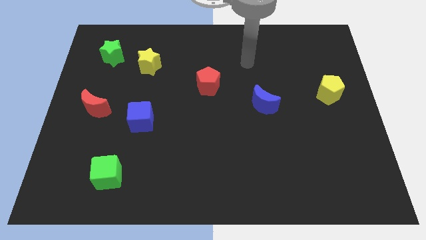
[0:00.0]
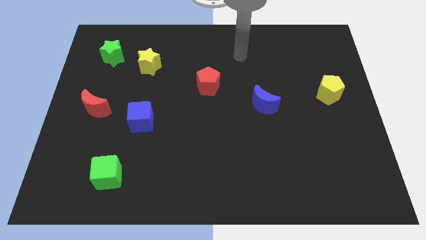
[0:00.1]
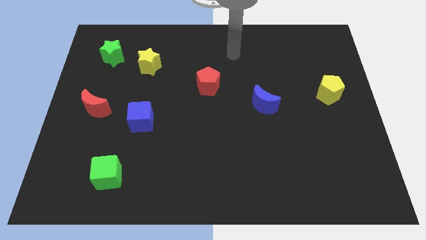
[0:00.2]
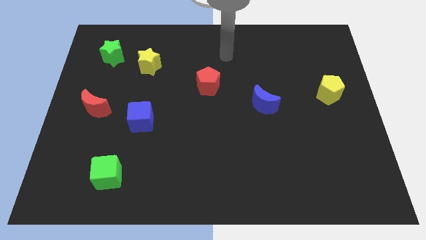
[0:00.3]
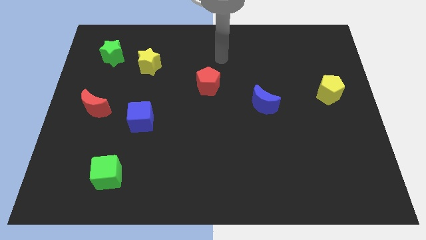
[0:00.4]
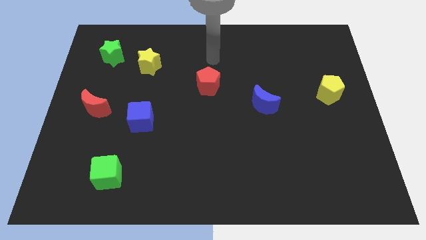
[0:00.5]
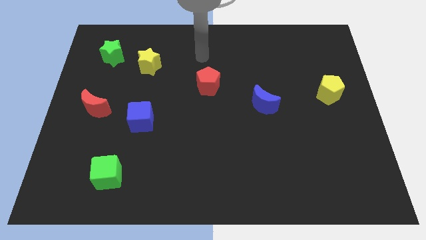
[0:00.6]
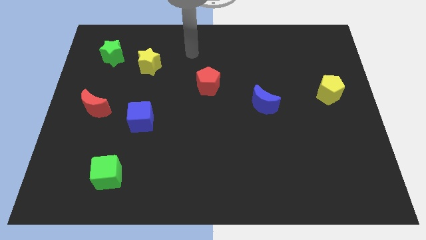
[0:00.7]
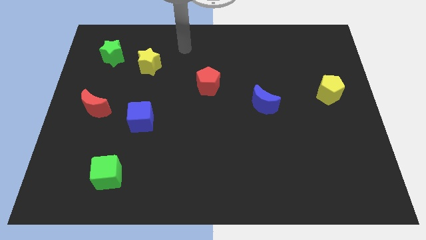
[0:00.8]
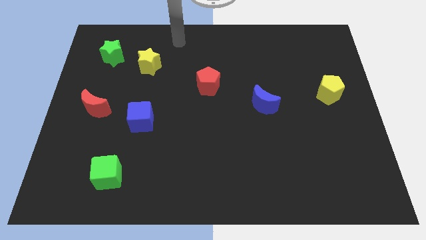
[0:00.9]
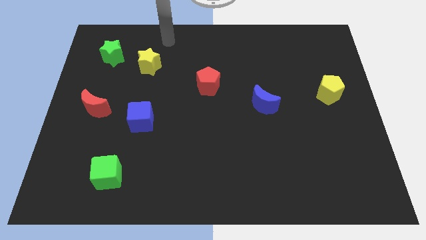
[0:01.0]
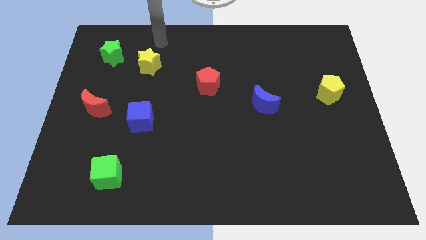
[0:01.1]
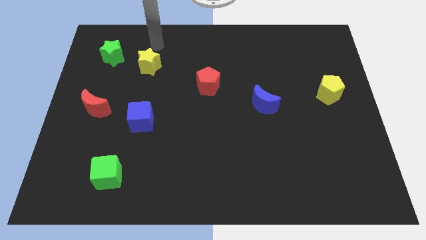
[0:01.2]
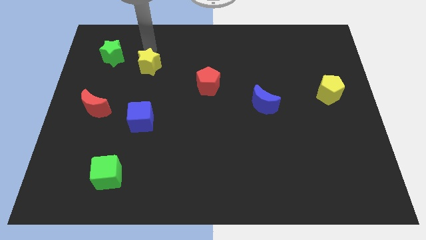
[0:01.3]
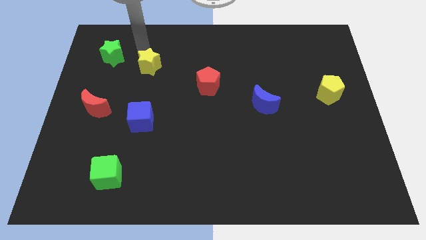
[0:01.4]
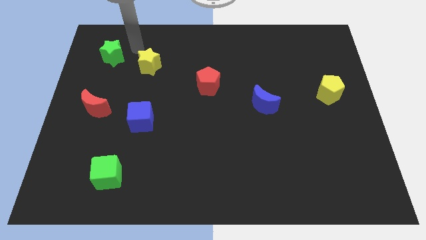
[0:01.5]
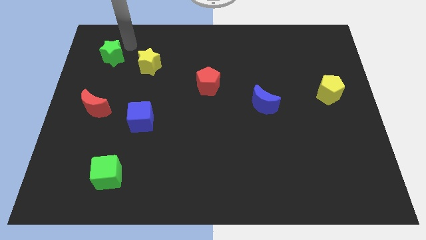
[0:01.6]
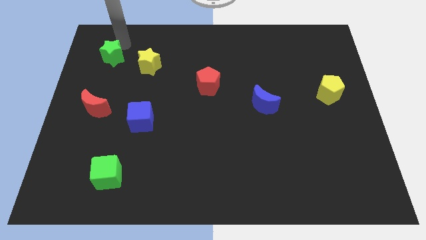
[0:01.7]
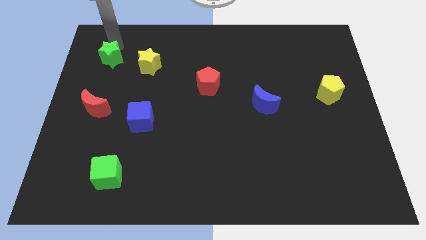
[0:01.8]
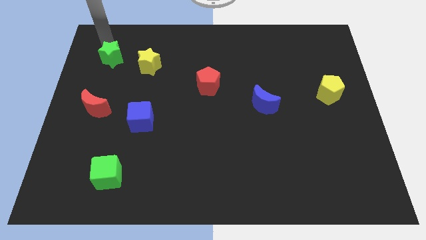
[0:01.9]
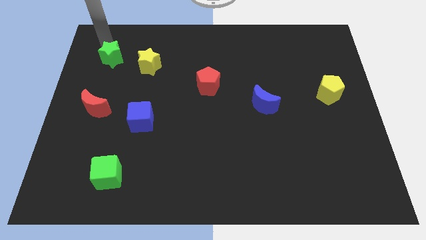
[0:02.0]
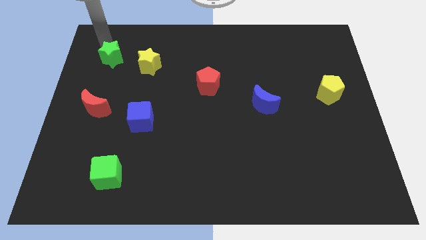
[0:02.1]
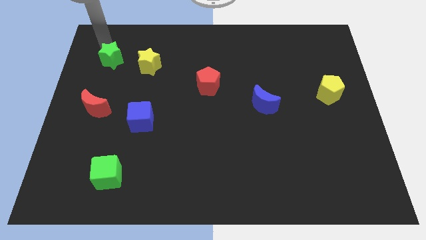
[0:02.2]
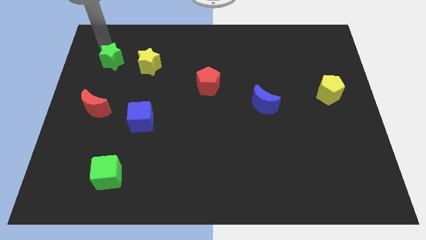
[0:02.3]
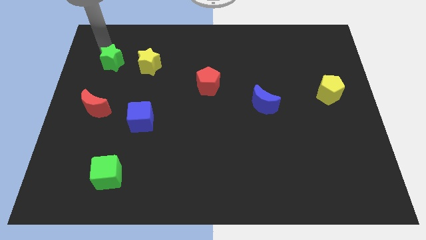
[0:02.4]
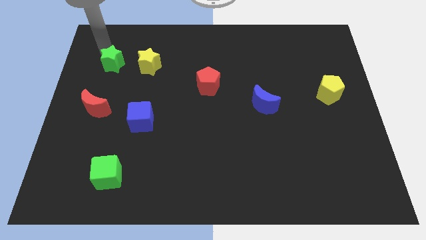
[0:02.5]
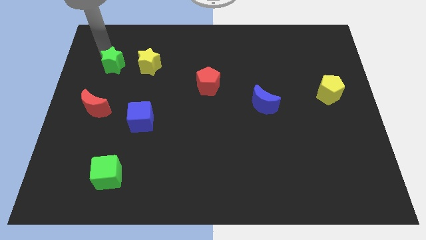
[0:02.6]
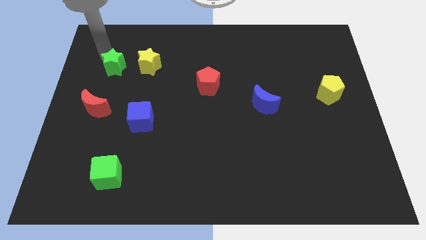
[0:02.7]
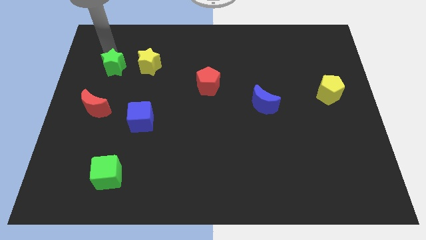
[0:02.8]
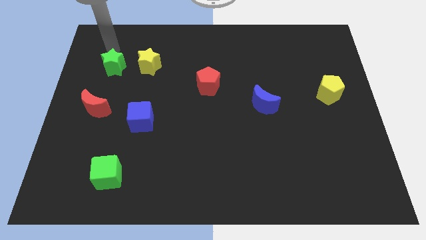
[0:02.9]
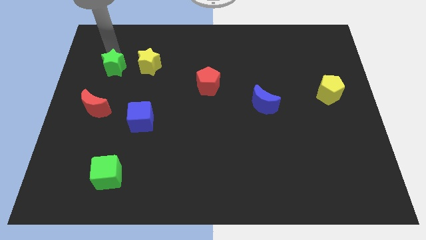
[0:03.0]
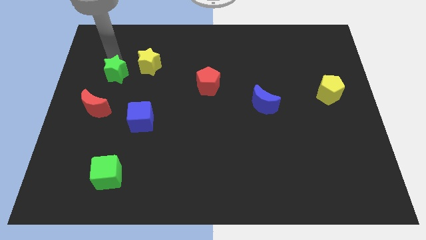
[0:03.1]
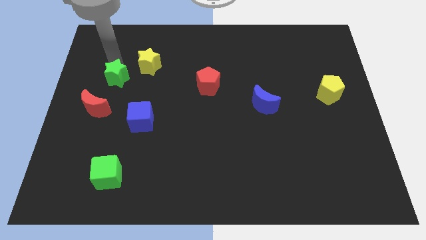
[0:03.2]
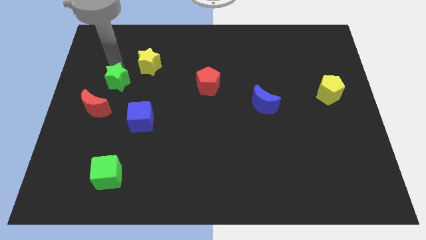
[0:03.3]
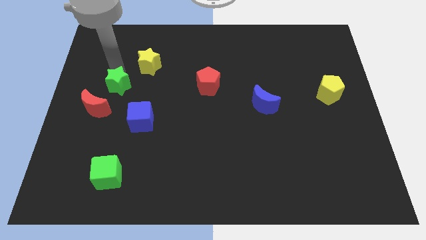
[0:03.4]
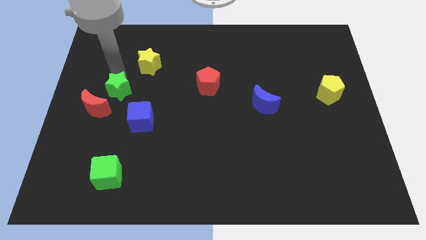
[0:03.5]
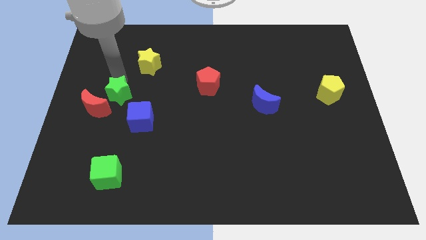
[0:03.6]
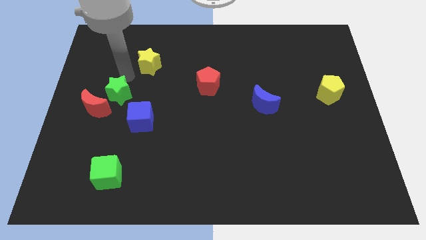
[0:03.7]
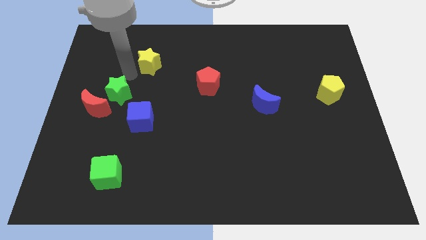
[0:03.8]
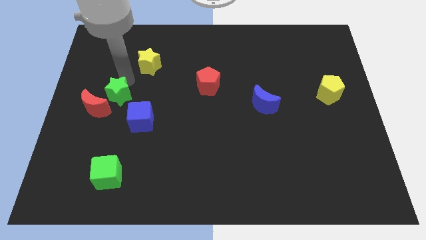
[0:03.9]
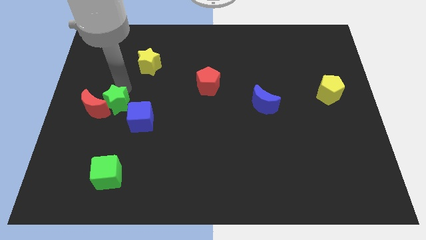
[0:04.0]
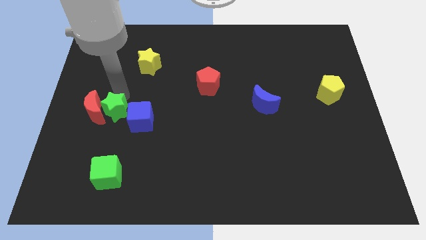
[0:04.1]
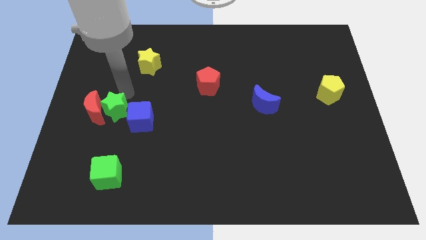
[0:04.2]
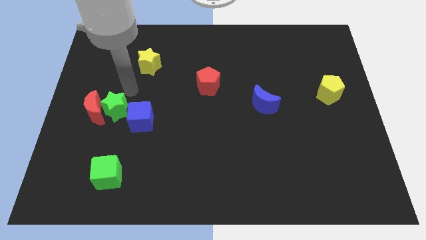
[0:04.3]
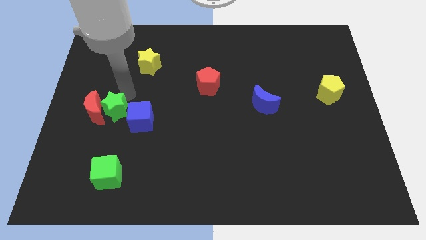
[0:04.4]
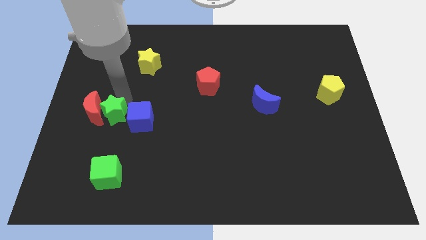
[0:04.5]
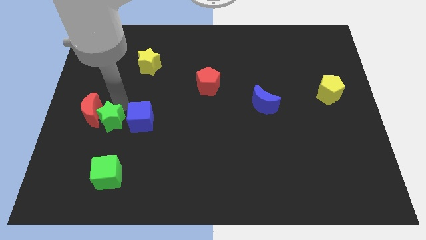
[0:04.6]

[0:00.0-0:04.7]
push the green star downwards

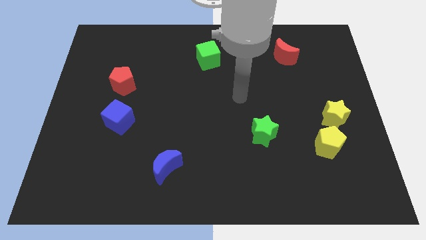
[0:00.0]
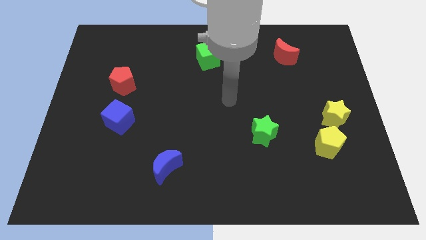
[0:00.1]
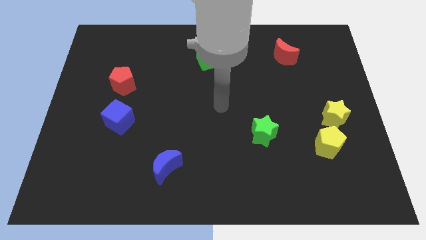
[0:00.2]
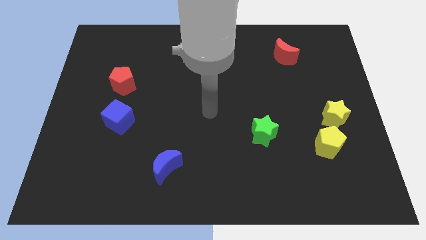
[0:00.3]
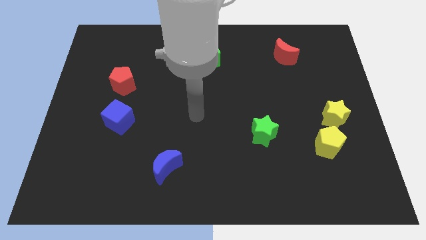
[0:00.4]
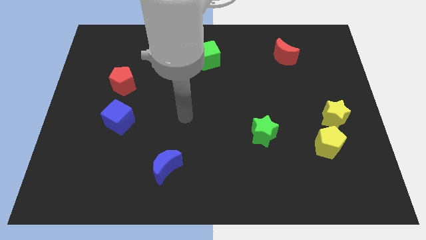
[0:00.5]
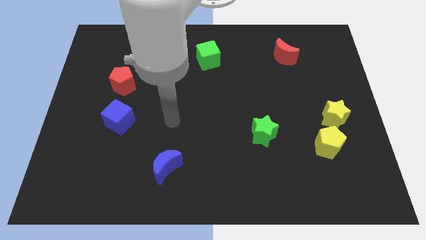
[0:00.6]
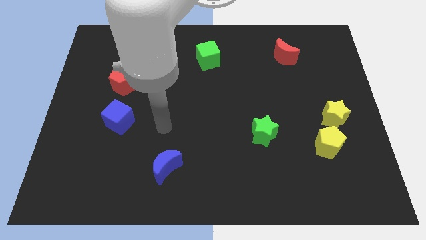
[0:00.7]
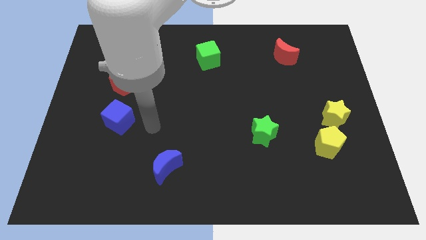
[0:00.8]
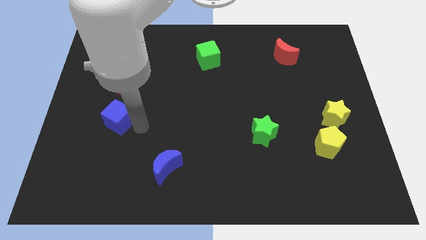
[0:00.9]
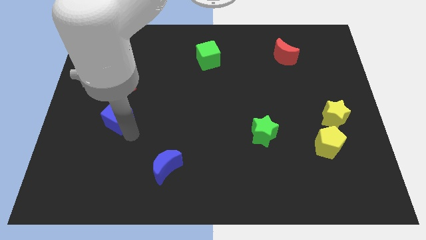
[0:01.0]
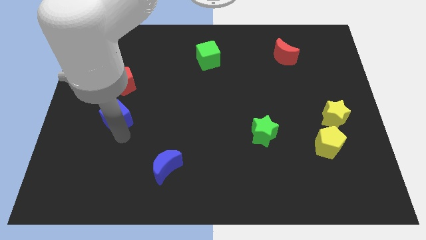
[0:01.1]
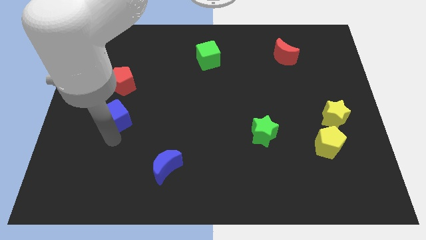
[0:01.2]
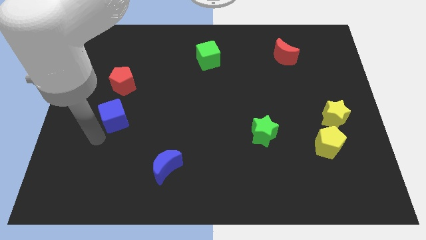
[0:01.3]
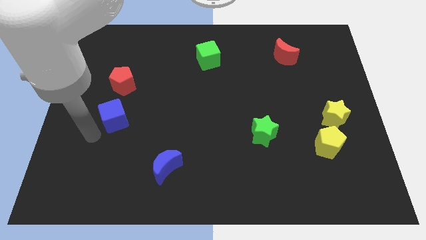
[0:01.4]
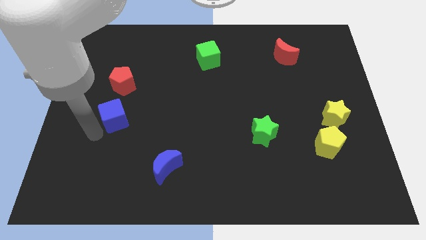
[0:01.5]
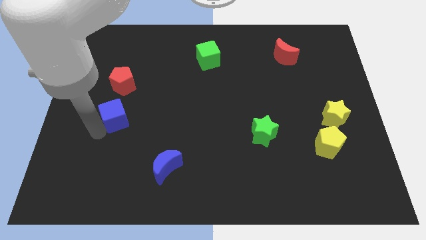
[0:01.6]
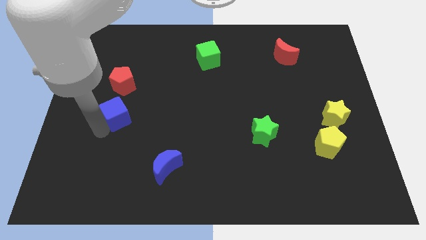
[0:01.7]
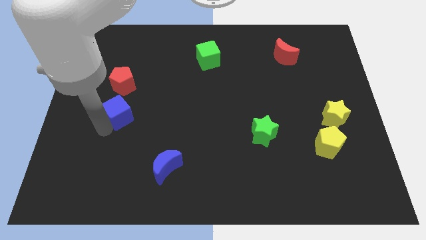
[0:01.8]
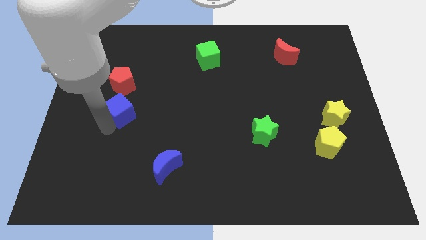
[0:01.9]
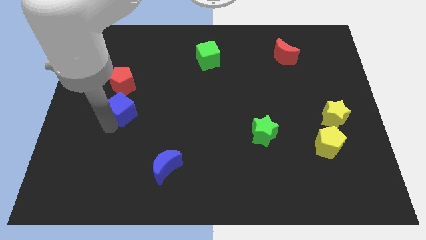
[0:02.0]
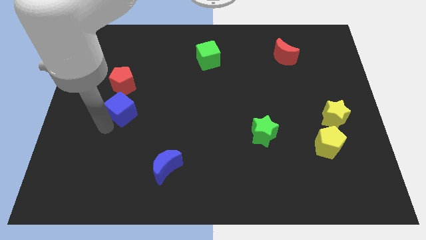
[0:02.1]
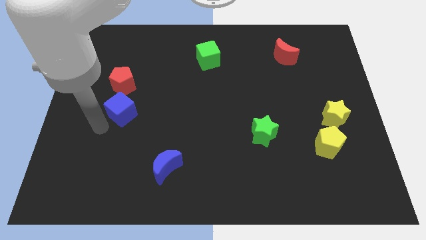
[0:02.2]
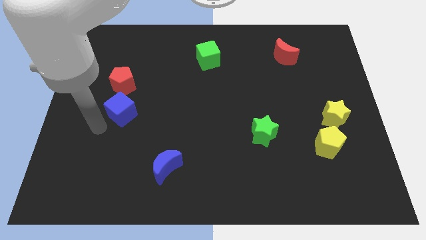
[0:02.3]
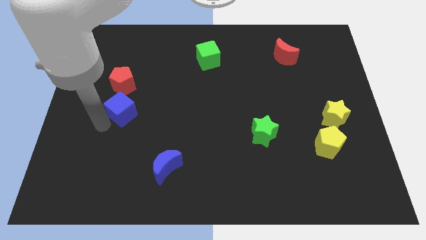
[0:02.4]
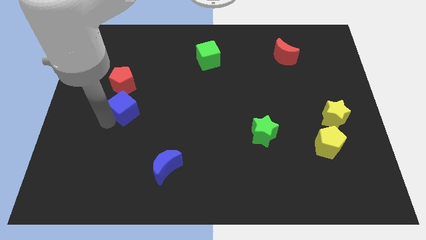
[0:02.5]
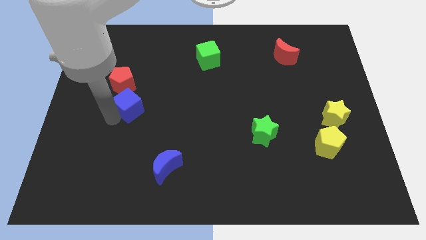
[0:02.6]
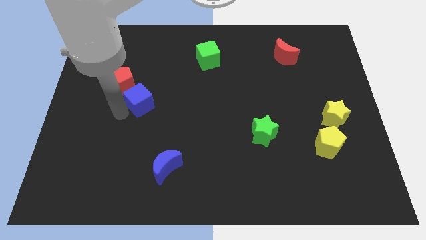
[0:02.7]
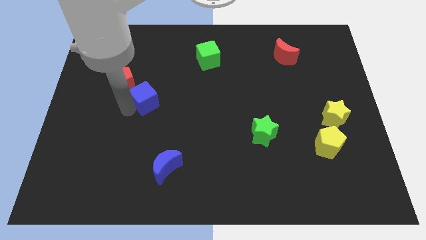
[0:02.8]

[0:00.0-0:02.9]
move the blue cube diagonally upwards and to the right a little bit

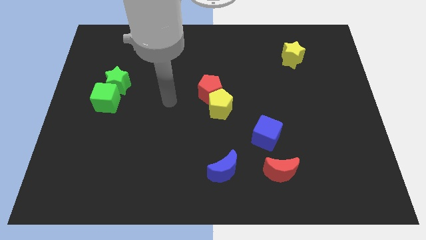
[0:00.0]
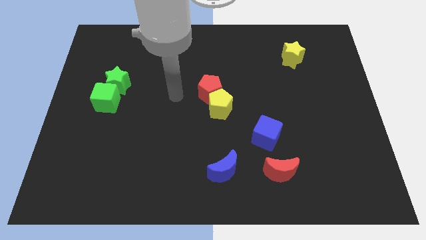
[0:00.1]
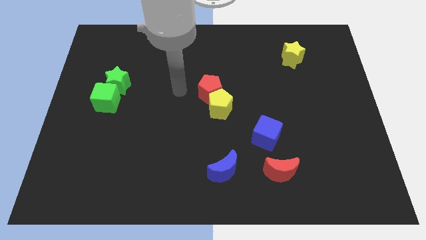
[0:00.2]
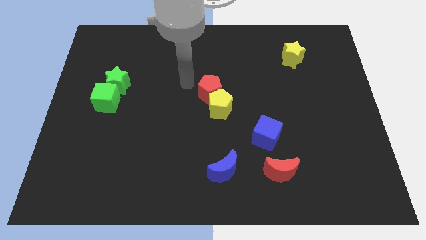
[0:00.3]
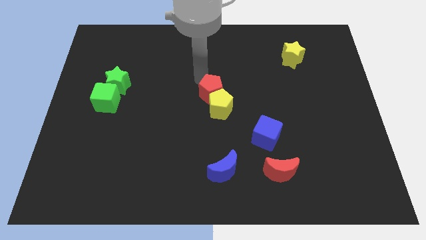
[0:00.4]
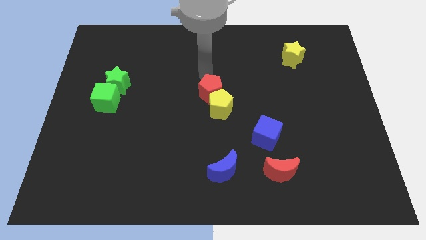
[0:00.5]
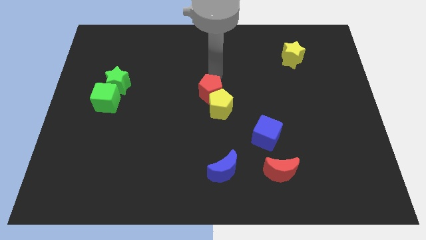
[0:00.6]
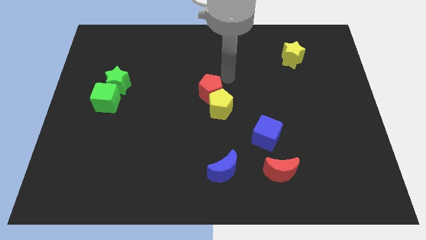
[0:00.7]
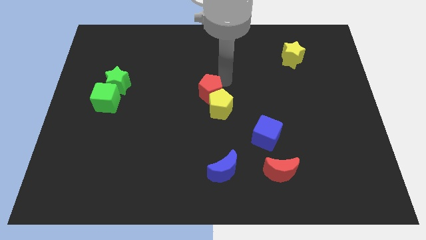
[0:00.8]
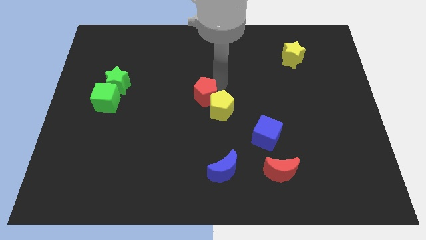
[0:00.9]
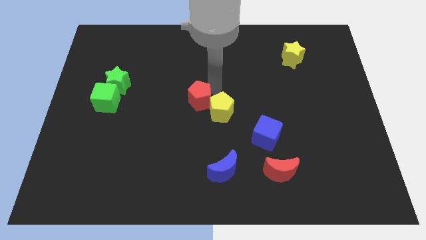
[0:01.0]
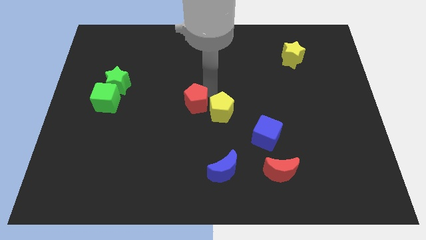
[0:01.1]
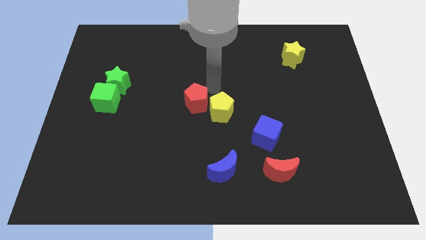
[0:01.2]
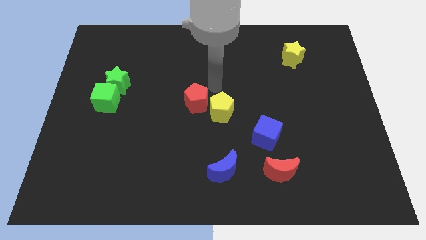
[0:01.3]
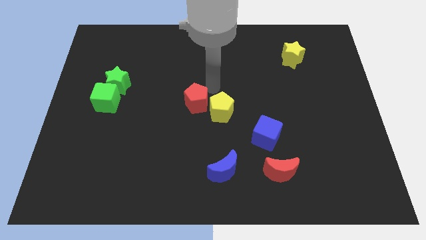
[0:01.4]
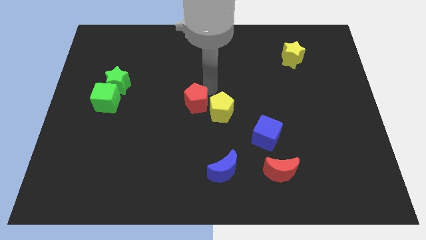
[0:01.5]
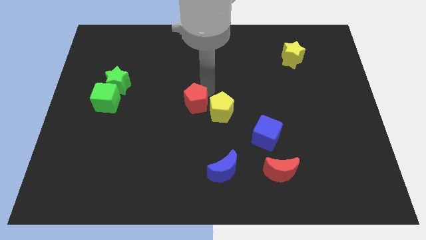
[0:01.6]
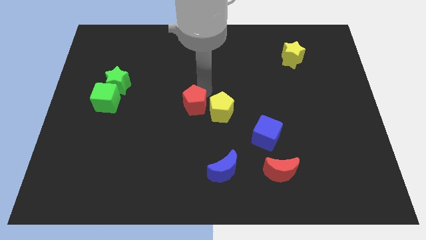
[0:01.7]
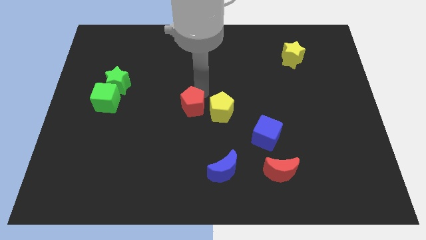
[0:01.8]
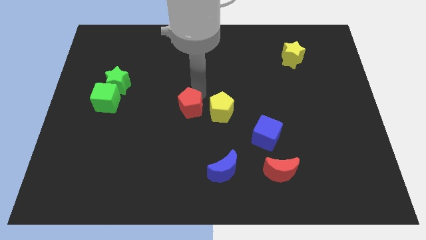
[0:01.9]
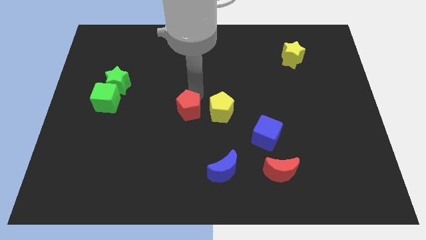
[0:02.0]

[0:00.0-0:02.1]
slightly slide the red pentagon diagonally downwards and to the left
